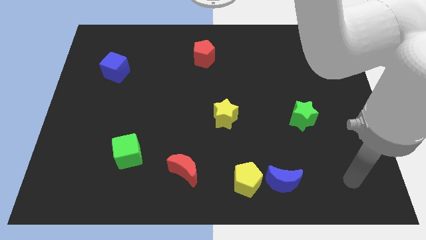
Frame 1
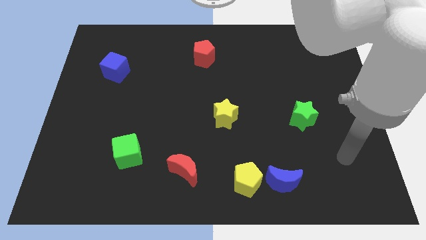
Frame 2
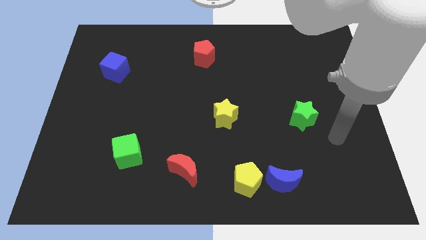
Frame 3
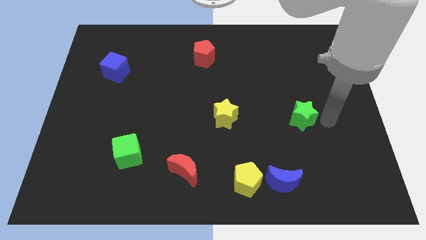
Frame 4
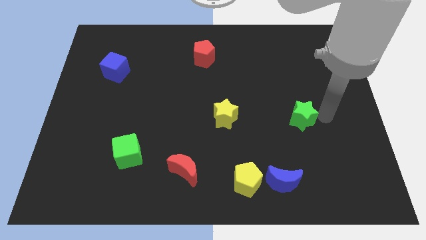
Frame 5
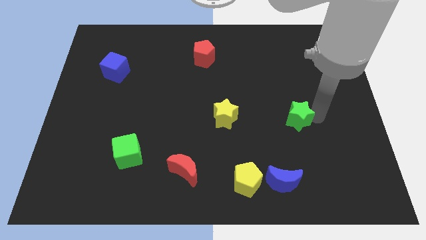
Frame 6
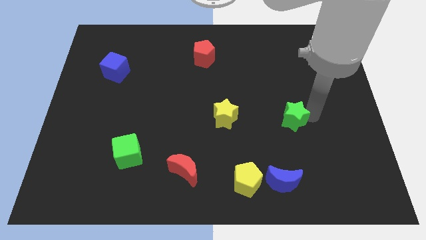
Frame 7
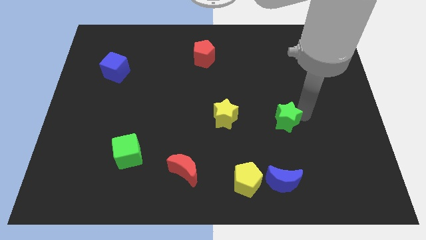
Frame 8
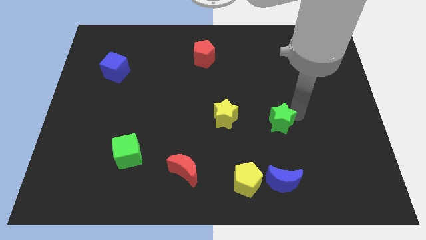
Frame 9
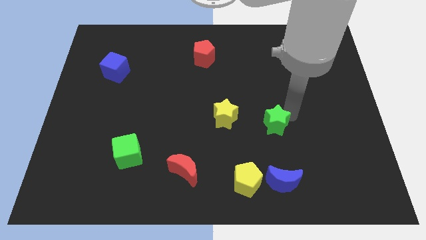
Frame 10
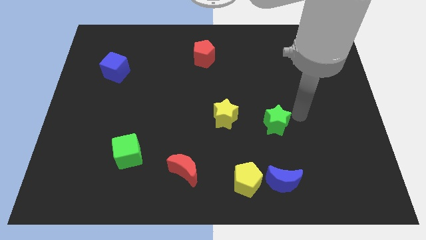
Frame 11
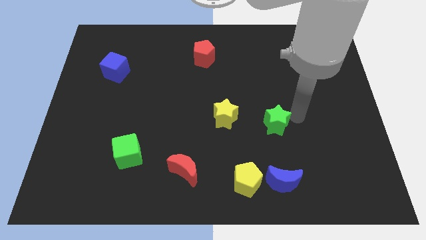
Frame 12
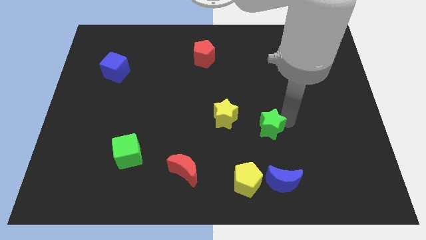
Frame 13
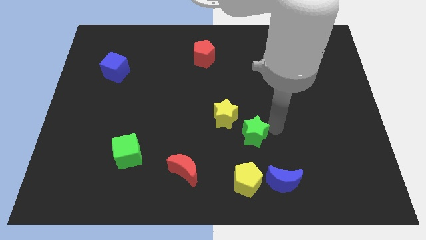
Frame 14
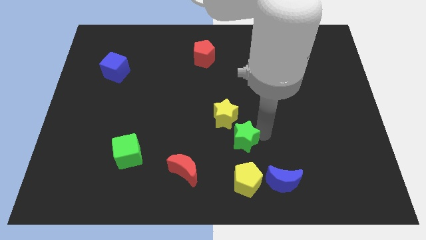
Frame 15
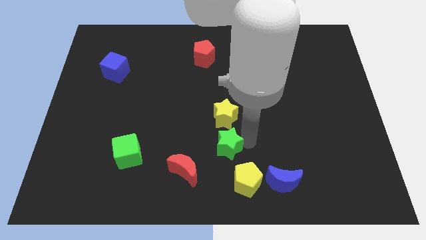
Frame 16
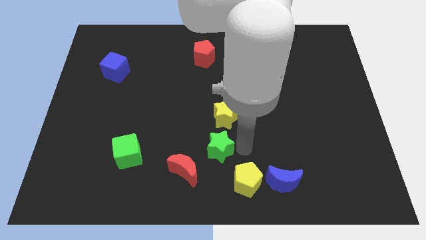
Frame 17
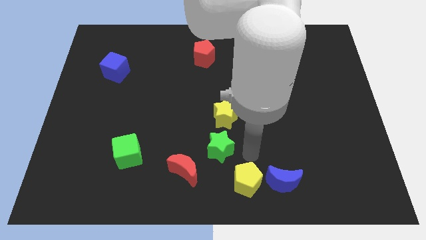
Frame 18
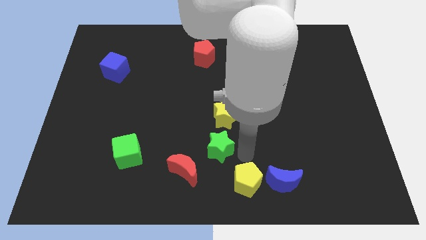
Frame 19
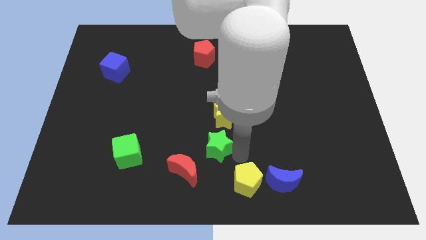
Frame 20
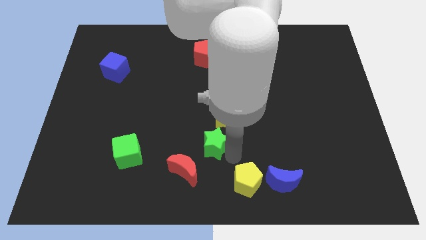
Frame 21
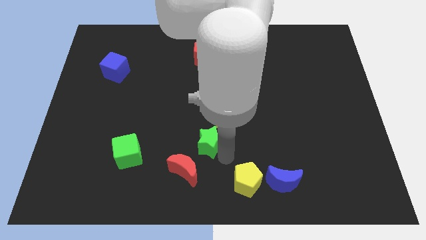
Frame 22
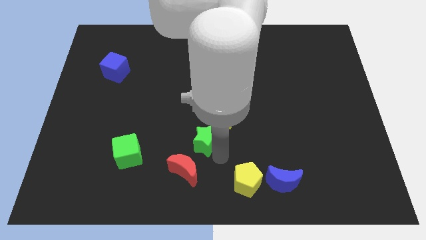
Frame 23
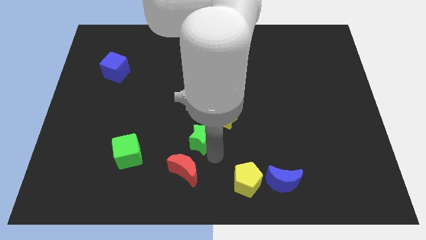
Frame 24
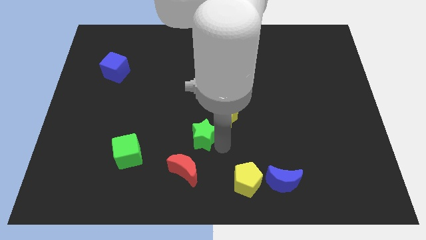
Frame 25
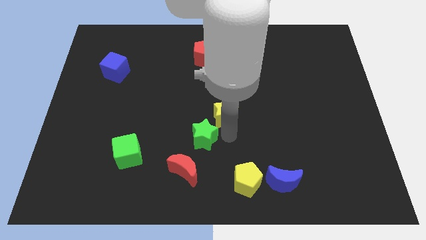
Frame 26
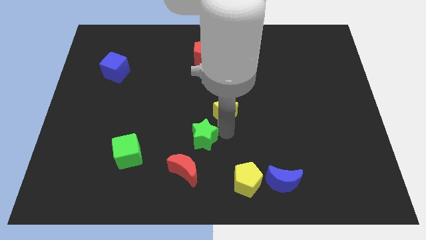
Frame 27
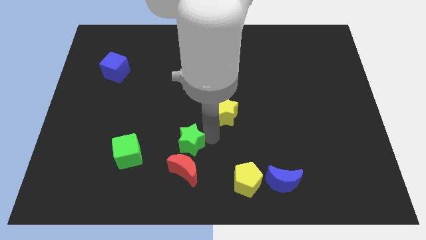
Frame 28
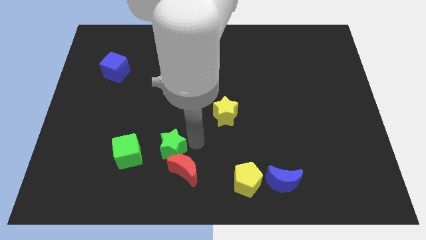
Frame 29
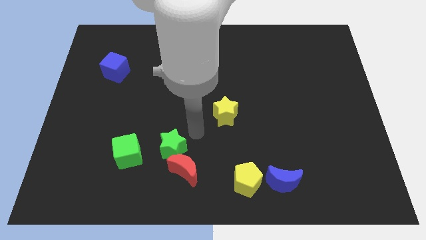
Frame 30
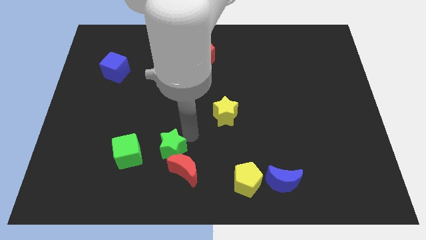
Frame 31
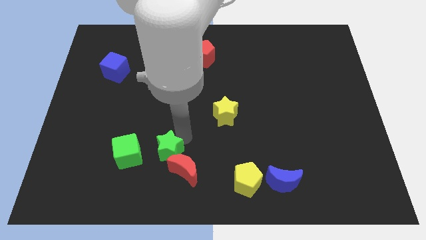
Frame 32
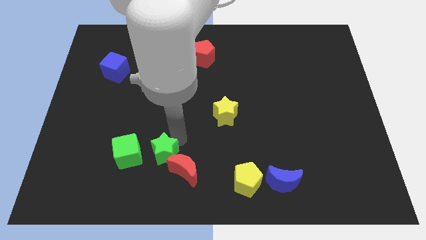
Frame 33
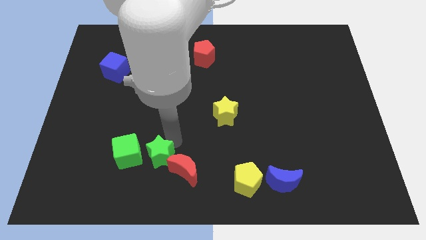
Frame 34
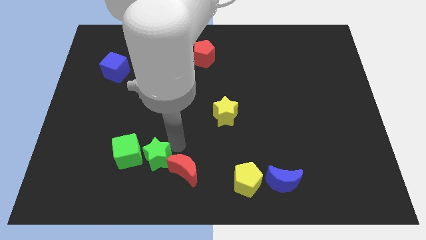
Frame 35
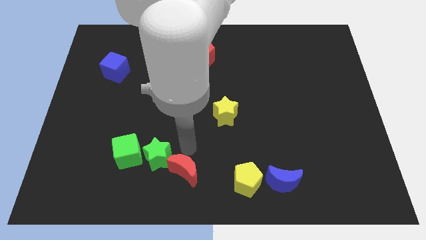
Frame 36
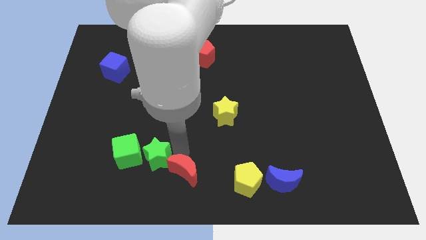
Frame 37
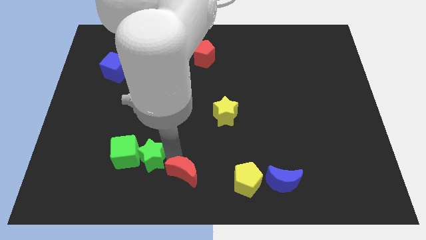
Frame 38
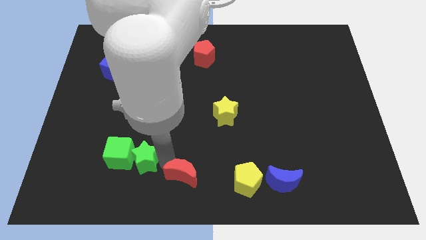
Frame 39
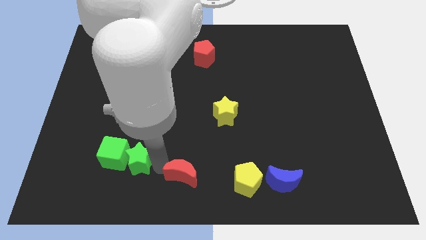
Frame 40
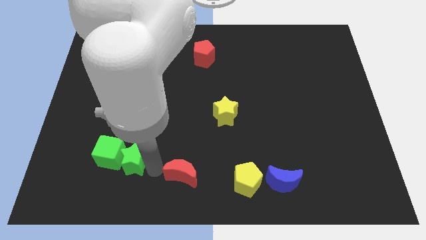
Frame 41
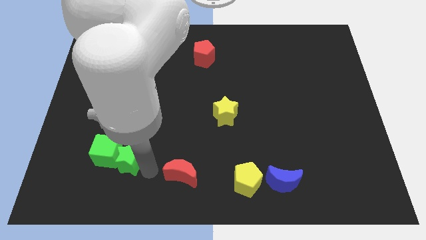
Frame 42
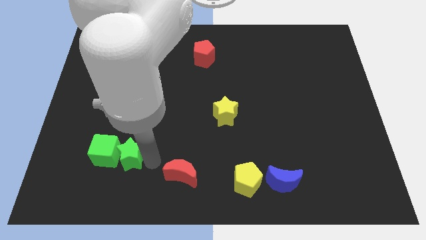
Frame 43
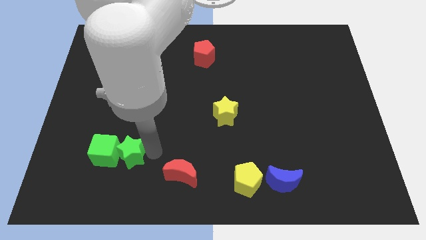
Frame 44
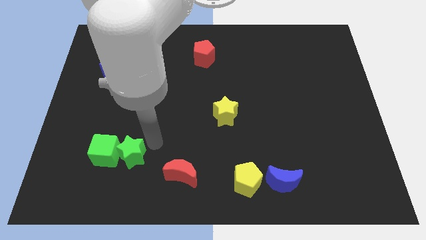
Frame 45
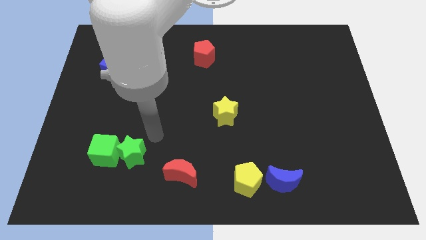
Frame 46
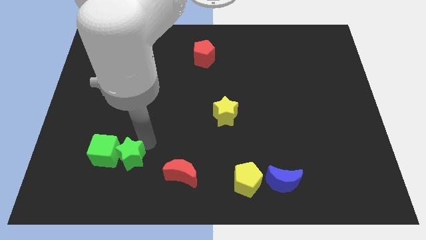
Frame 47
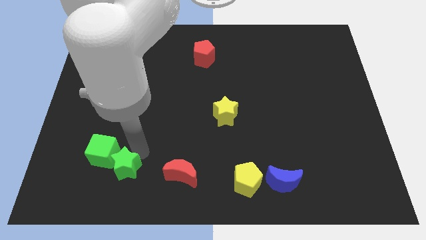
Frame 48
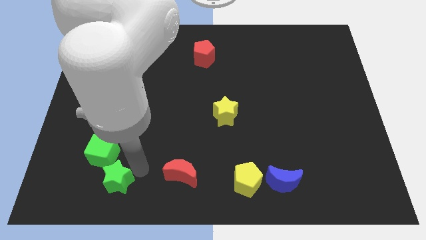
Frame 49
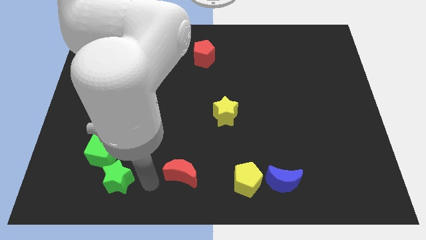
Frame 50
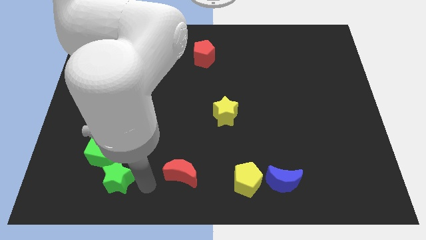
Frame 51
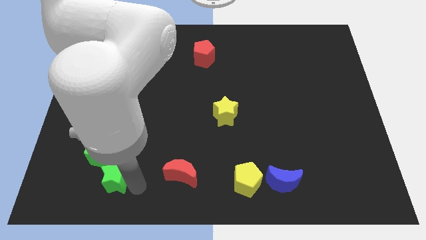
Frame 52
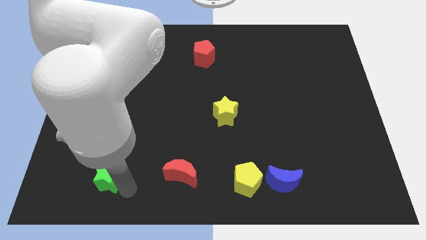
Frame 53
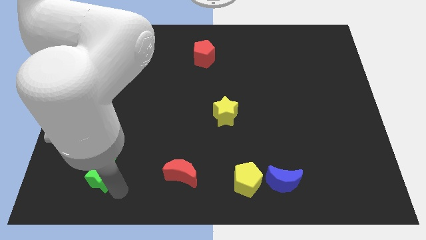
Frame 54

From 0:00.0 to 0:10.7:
push the green star to the bottom left side of the green cube
